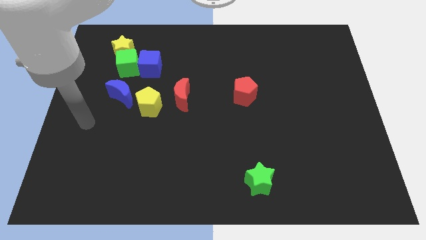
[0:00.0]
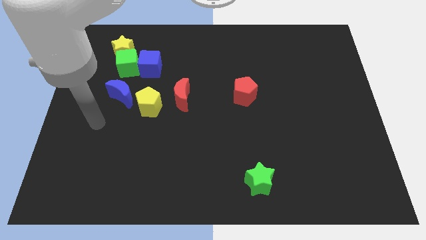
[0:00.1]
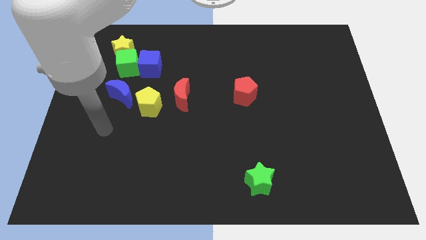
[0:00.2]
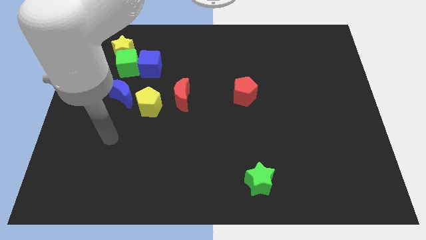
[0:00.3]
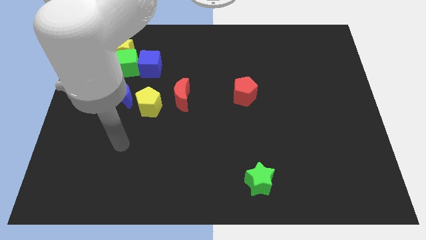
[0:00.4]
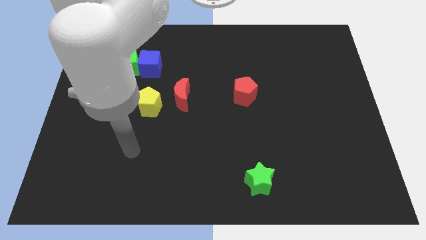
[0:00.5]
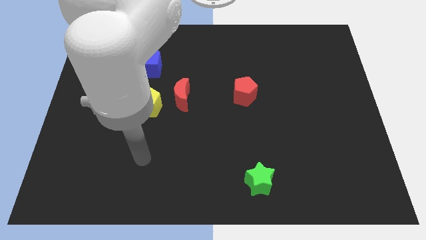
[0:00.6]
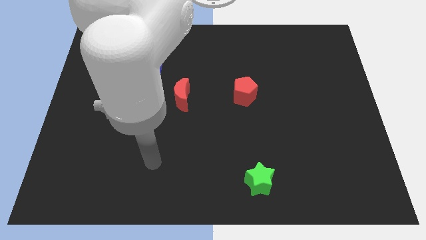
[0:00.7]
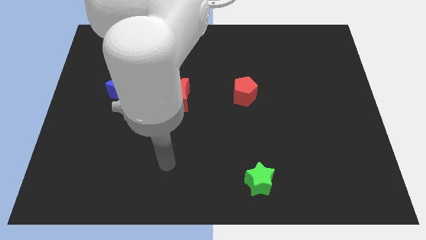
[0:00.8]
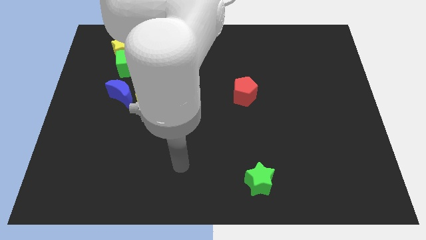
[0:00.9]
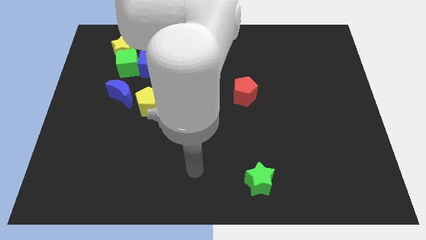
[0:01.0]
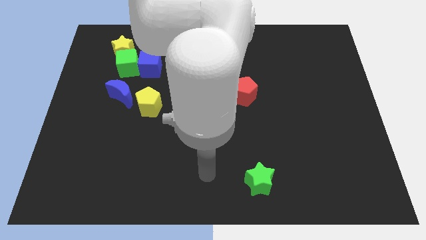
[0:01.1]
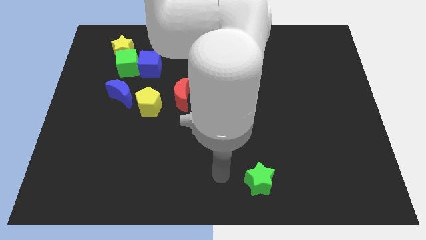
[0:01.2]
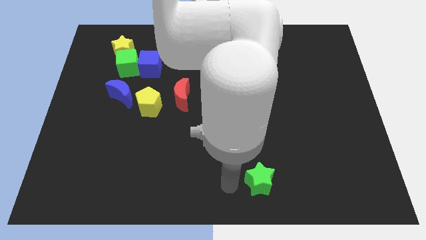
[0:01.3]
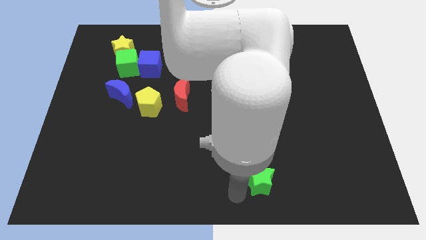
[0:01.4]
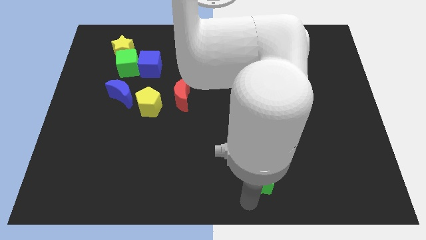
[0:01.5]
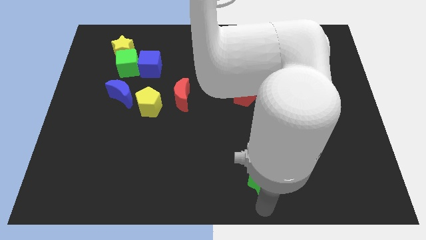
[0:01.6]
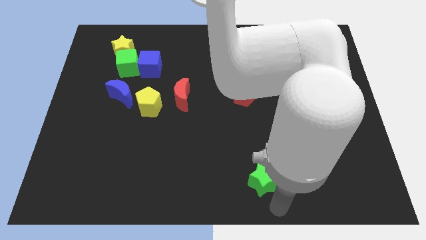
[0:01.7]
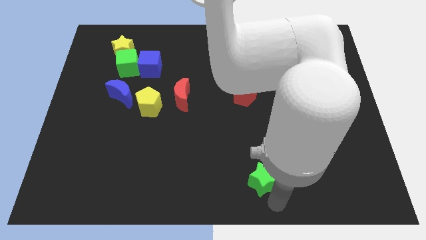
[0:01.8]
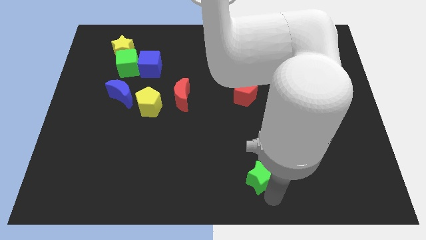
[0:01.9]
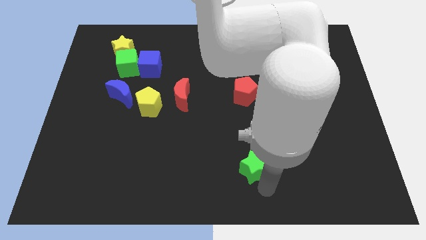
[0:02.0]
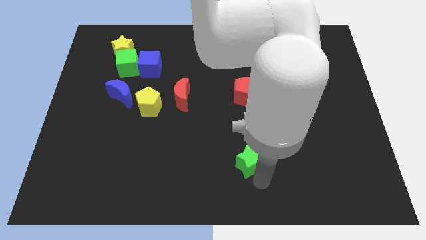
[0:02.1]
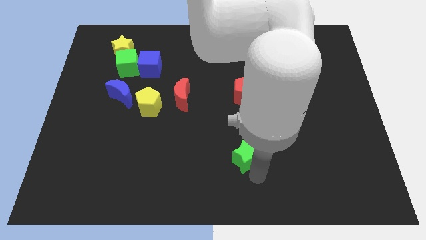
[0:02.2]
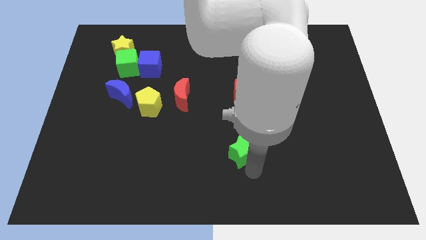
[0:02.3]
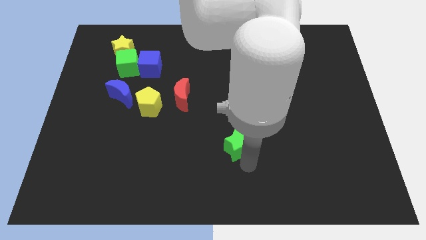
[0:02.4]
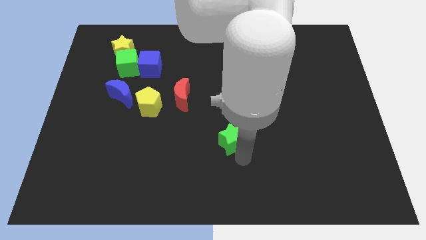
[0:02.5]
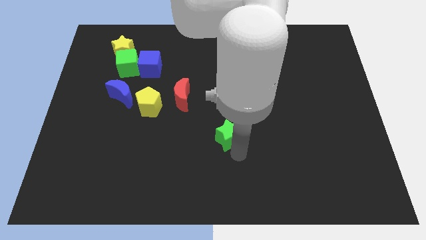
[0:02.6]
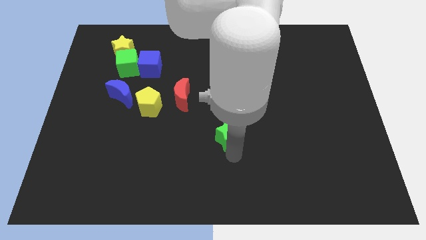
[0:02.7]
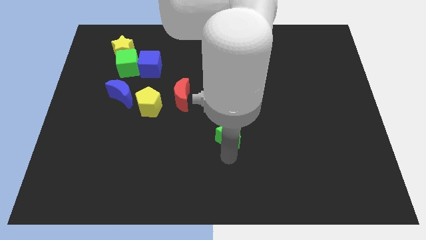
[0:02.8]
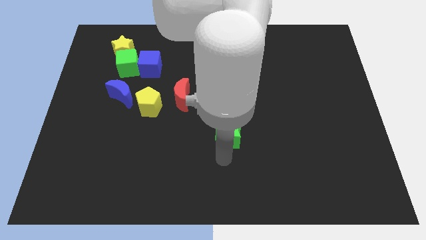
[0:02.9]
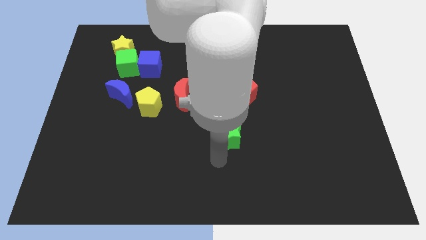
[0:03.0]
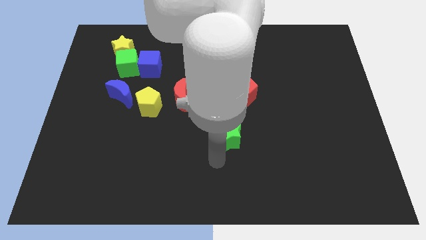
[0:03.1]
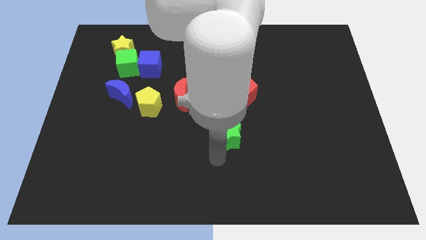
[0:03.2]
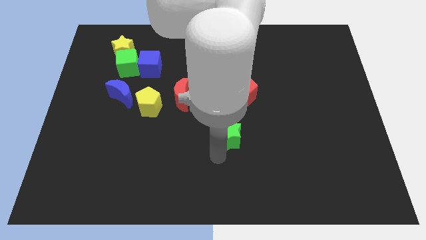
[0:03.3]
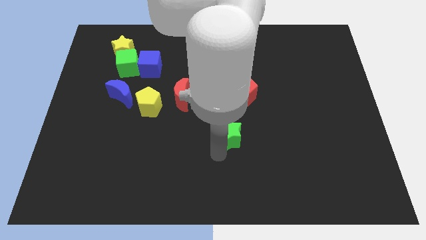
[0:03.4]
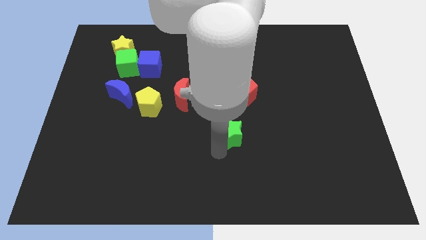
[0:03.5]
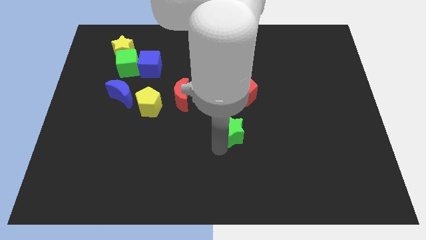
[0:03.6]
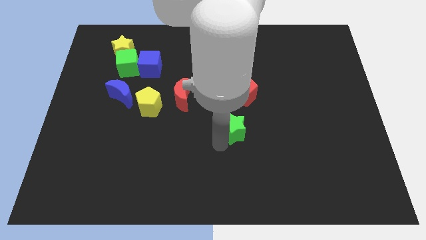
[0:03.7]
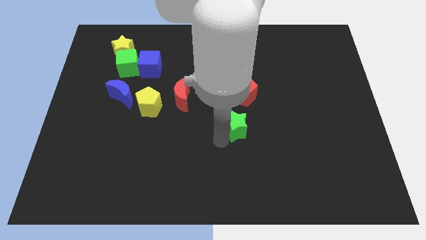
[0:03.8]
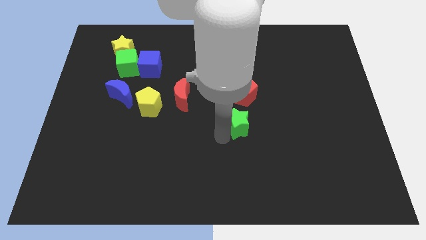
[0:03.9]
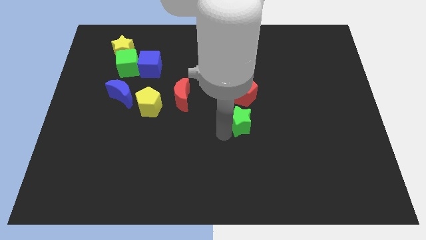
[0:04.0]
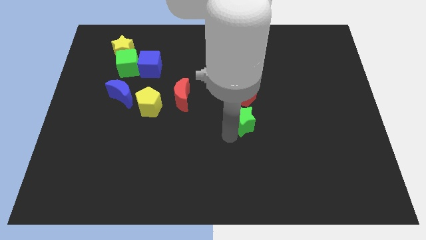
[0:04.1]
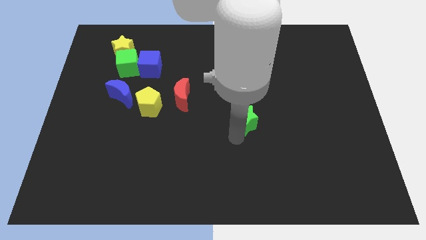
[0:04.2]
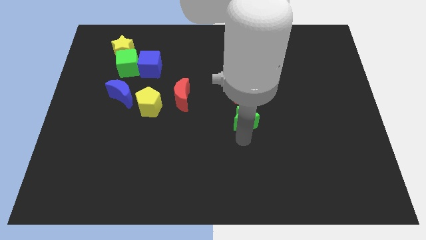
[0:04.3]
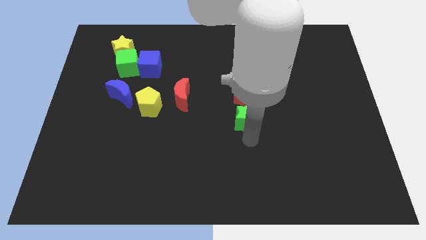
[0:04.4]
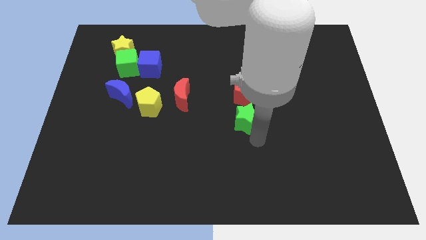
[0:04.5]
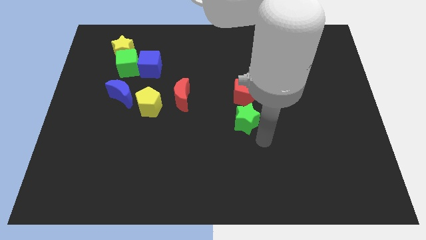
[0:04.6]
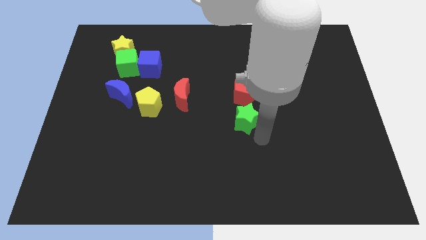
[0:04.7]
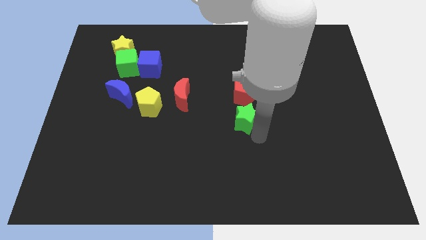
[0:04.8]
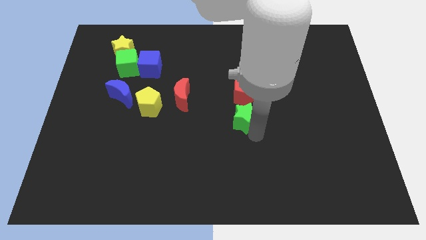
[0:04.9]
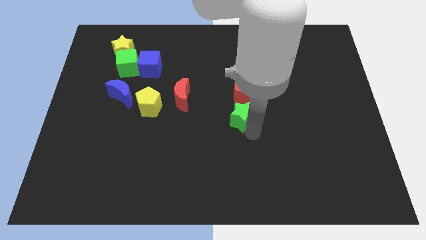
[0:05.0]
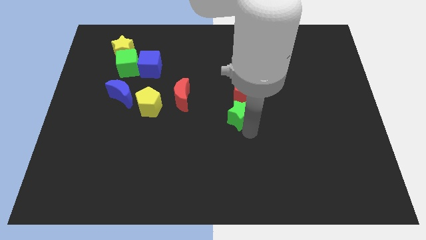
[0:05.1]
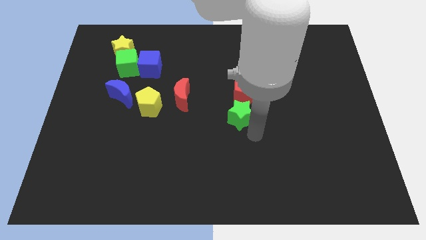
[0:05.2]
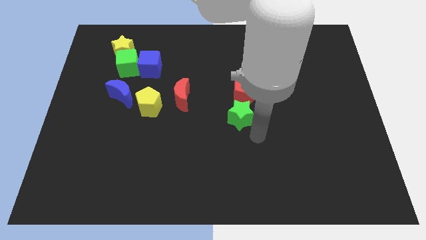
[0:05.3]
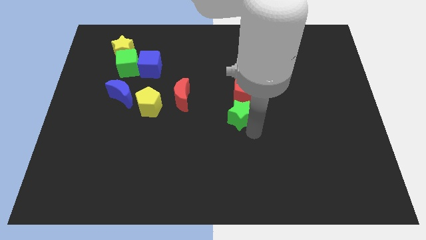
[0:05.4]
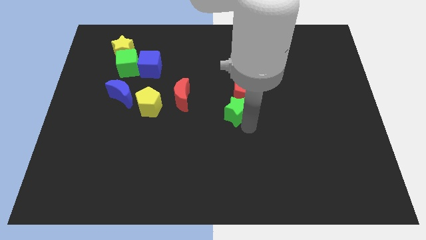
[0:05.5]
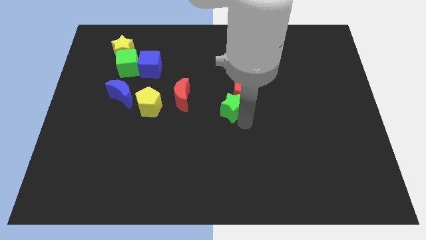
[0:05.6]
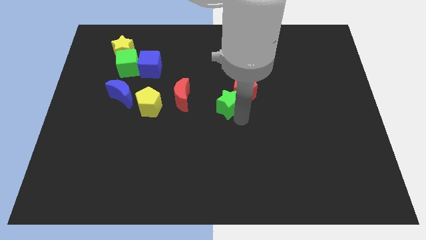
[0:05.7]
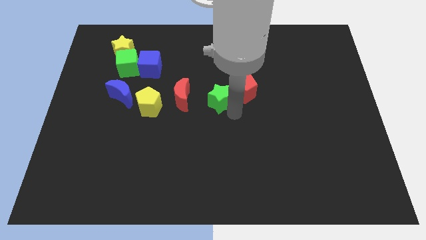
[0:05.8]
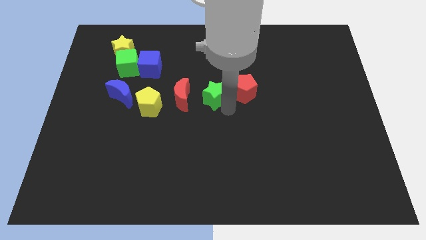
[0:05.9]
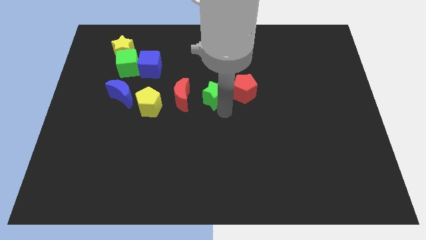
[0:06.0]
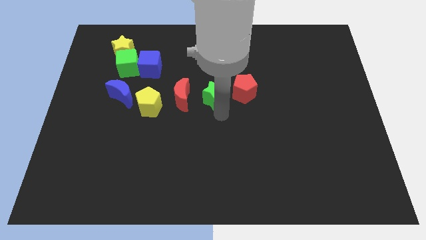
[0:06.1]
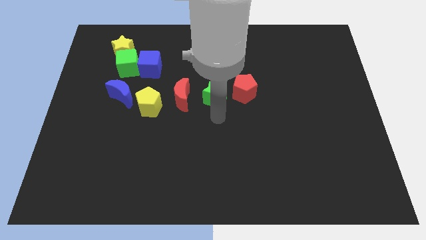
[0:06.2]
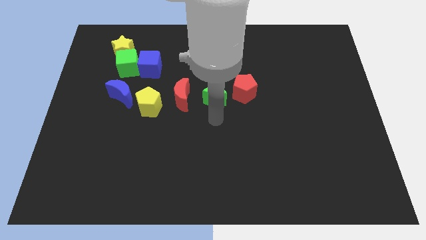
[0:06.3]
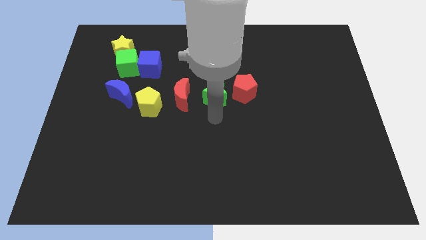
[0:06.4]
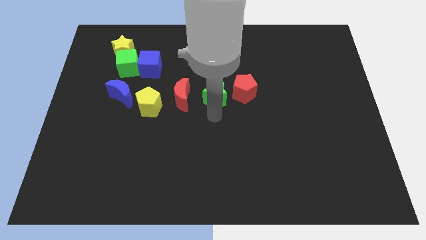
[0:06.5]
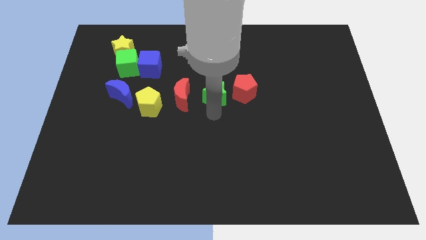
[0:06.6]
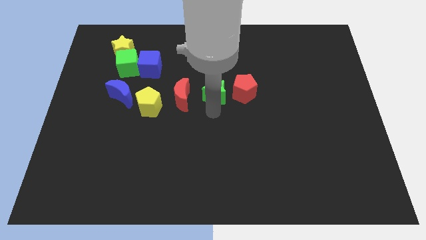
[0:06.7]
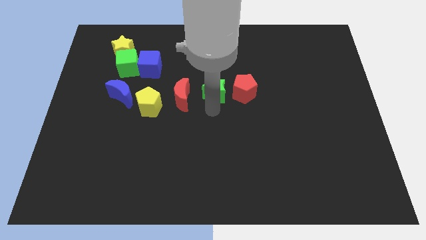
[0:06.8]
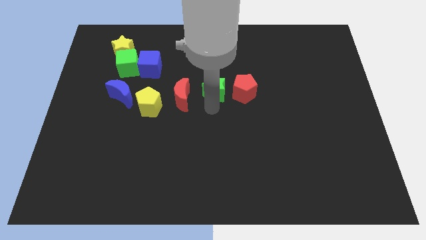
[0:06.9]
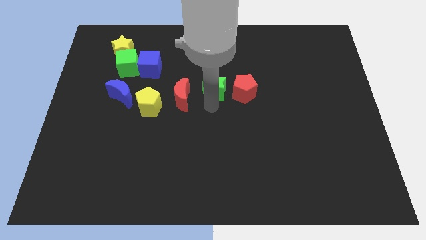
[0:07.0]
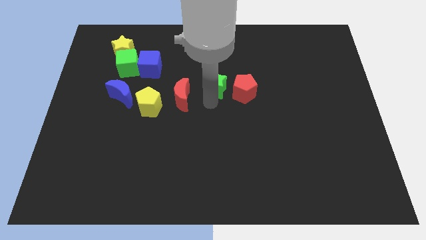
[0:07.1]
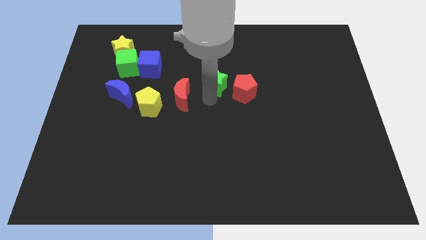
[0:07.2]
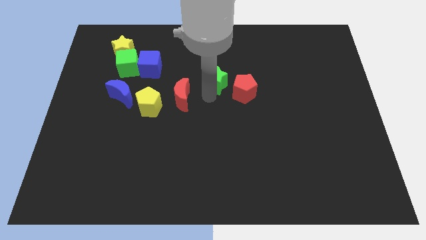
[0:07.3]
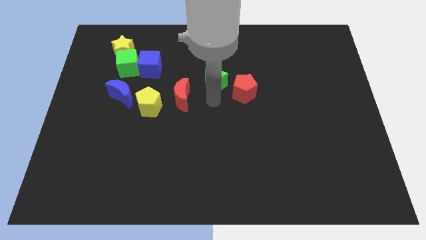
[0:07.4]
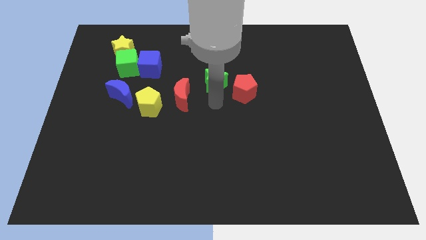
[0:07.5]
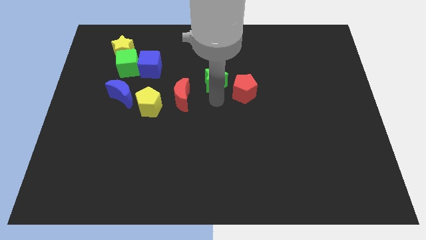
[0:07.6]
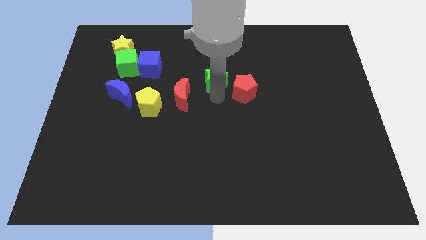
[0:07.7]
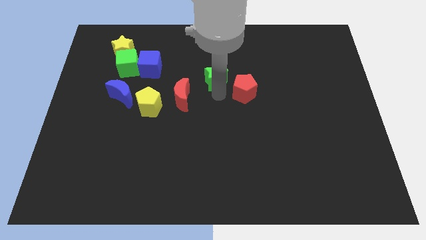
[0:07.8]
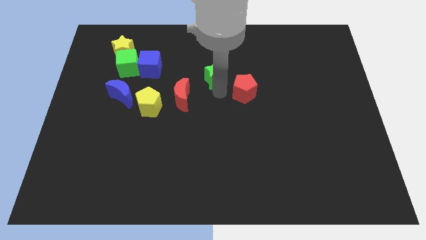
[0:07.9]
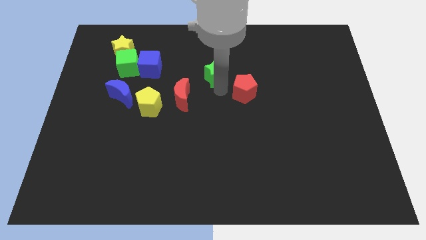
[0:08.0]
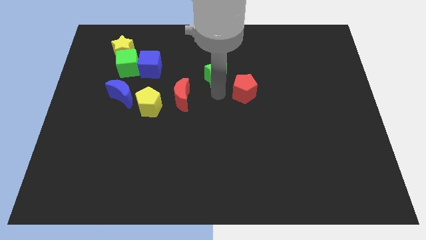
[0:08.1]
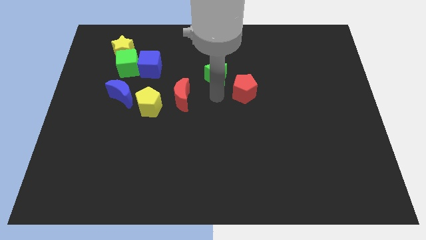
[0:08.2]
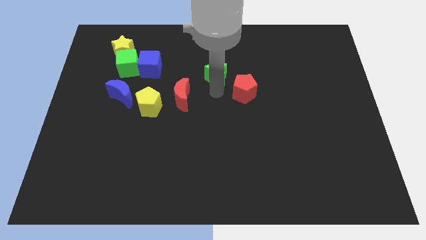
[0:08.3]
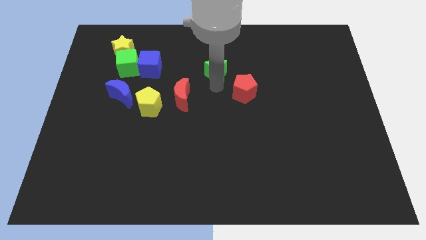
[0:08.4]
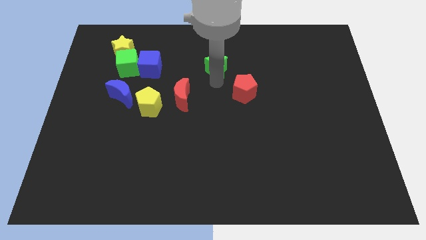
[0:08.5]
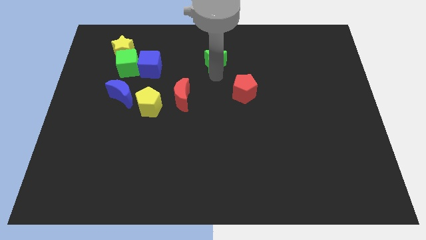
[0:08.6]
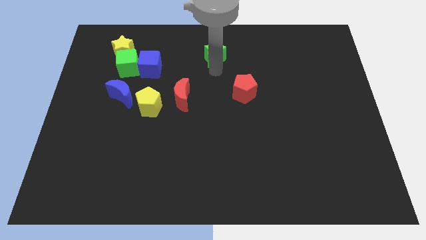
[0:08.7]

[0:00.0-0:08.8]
slide the green star to the top
